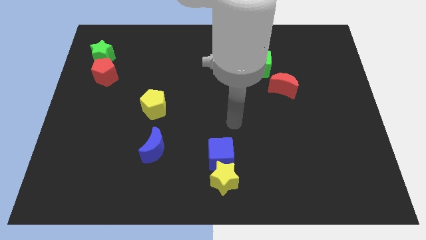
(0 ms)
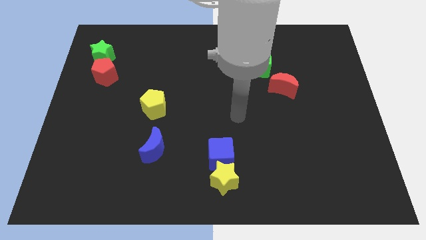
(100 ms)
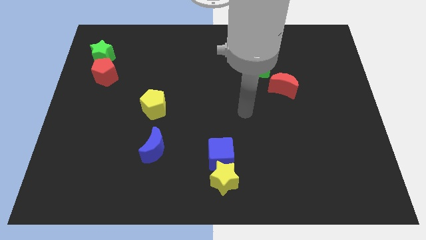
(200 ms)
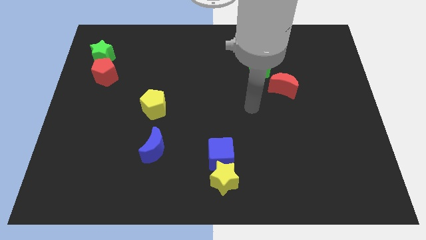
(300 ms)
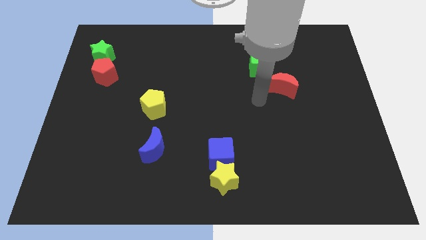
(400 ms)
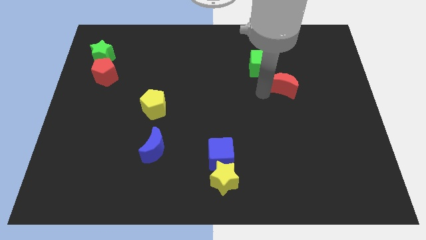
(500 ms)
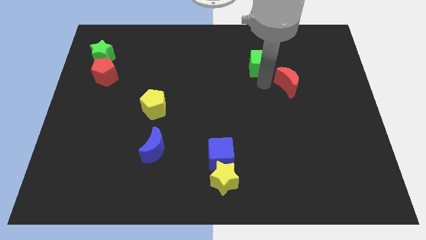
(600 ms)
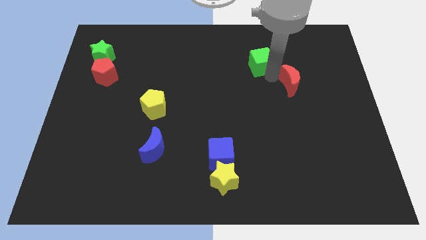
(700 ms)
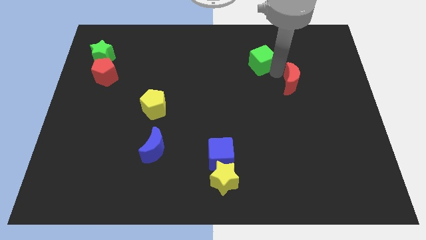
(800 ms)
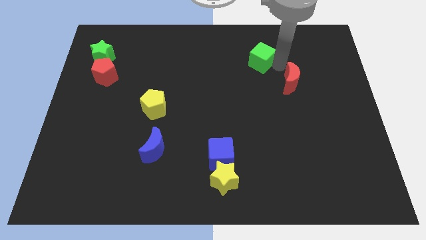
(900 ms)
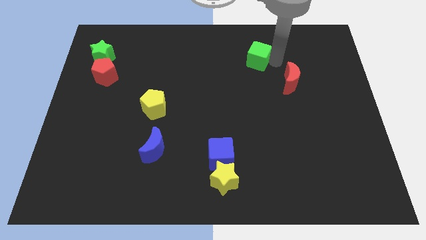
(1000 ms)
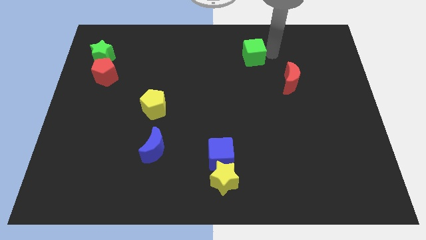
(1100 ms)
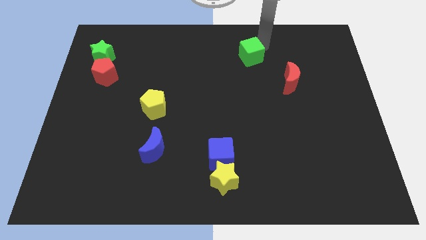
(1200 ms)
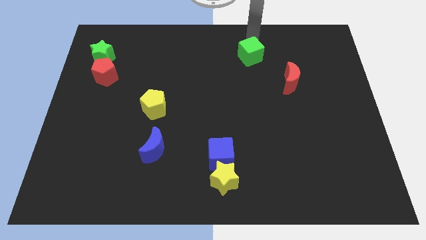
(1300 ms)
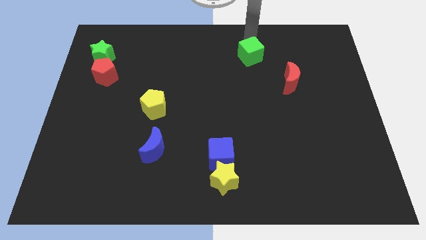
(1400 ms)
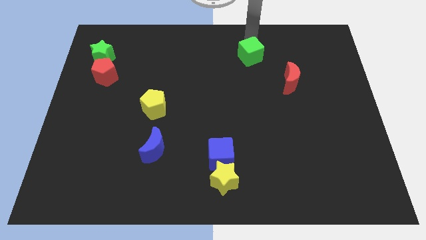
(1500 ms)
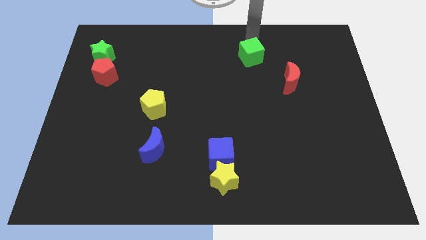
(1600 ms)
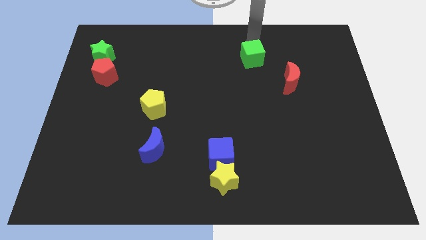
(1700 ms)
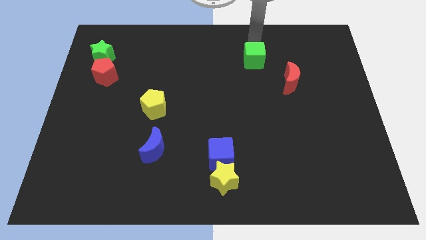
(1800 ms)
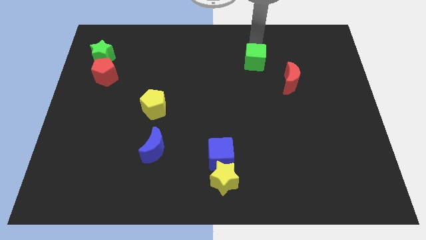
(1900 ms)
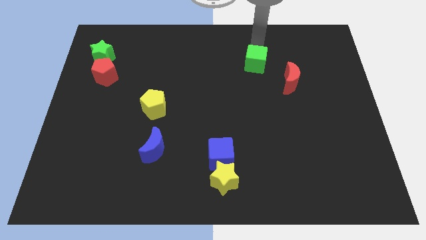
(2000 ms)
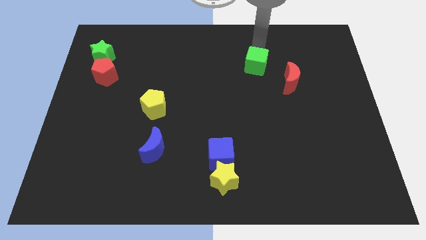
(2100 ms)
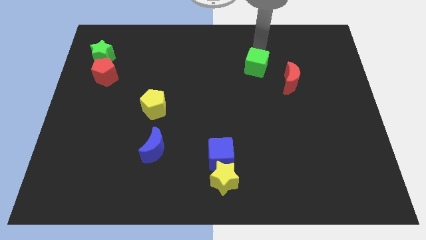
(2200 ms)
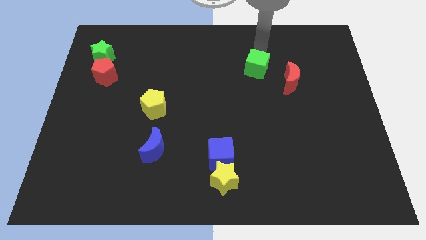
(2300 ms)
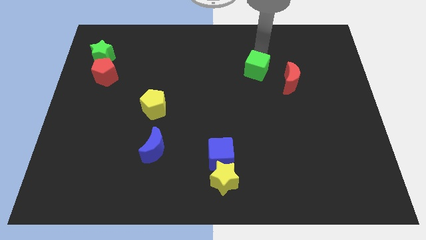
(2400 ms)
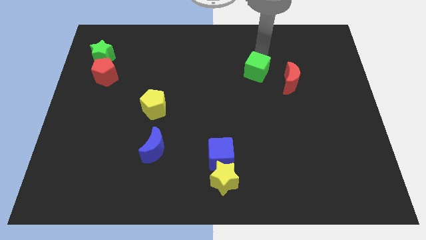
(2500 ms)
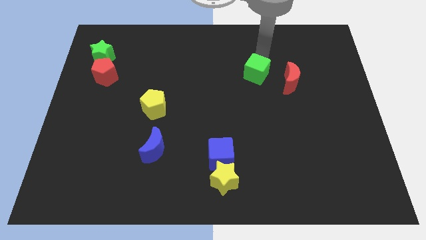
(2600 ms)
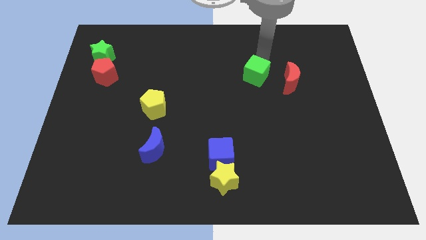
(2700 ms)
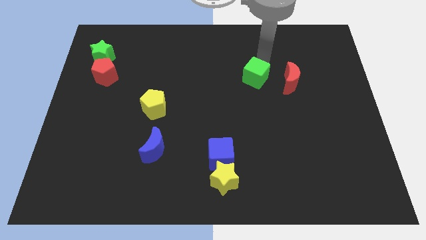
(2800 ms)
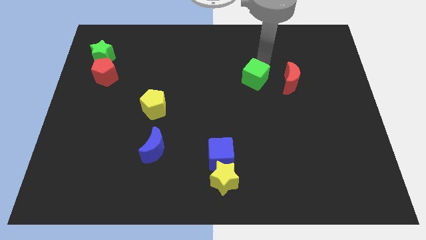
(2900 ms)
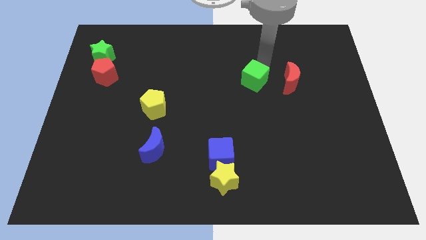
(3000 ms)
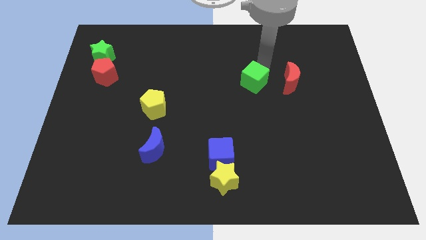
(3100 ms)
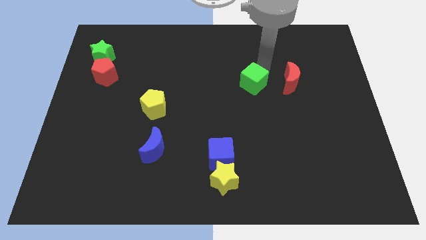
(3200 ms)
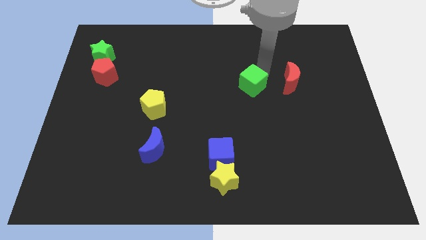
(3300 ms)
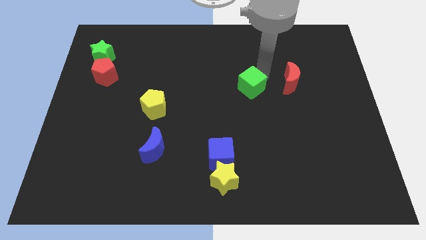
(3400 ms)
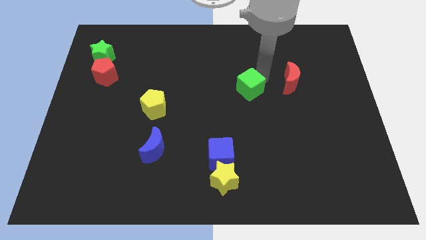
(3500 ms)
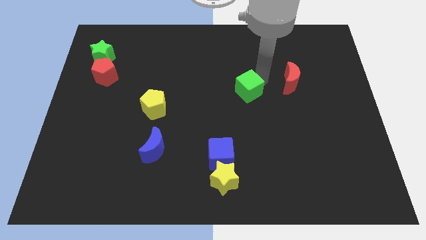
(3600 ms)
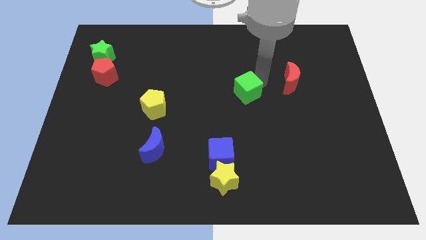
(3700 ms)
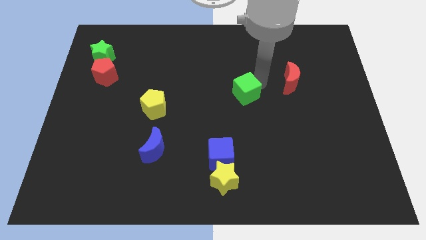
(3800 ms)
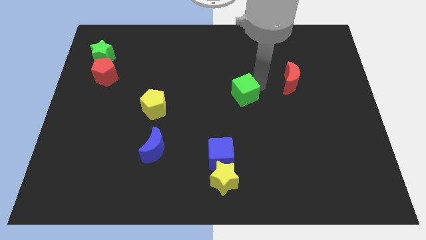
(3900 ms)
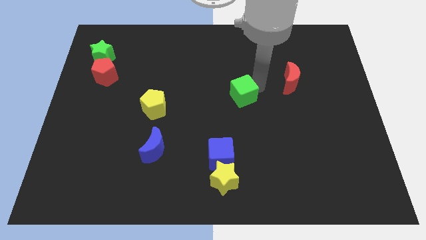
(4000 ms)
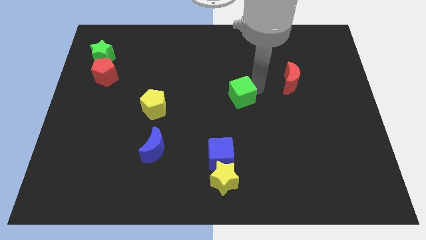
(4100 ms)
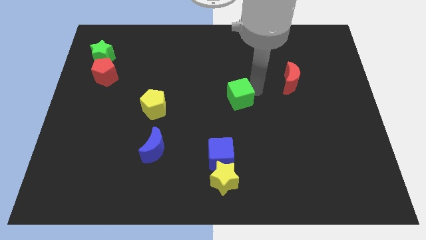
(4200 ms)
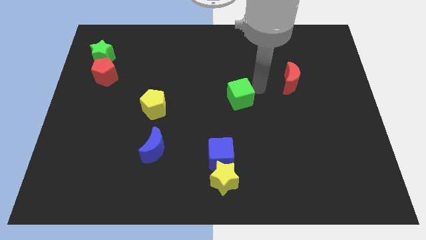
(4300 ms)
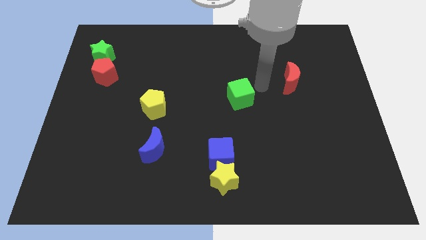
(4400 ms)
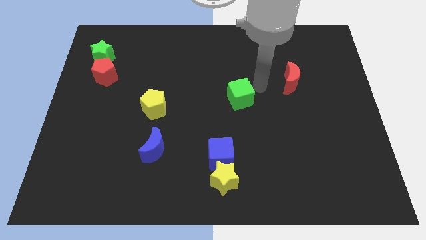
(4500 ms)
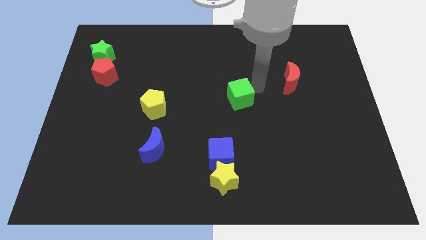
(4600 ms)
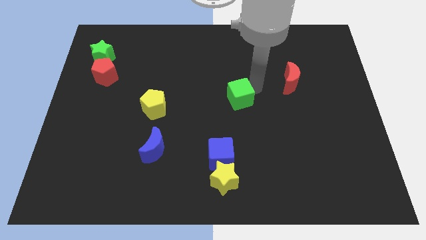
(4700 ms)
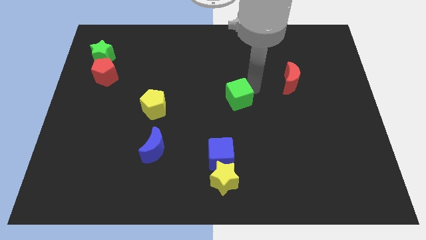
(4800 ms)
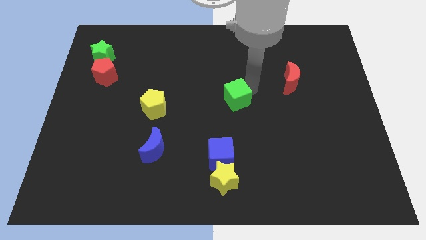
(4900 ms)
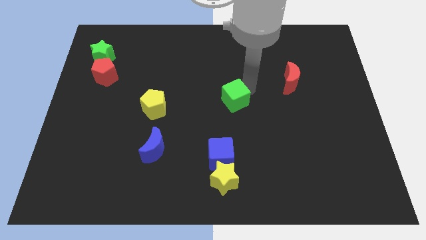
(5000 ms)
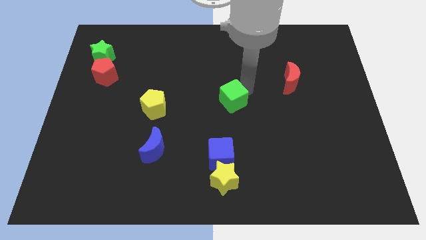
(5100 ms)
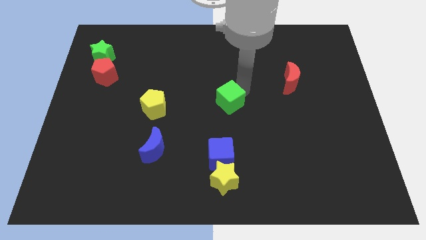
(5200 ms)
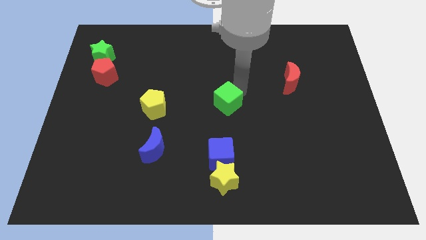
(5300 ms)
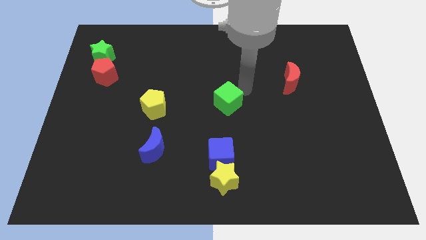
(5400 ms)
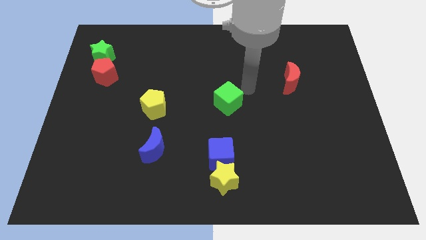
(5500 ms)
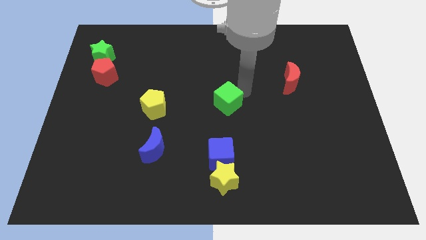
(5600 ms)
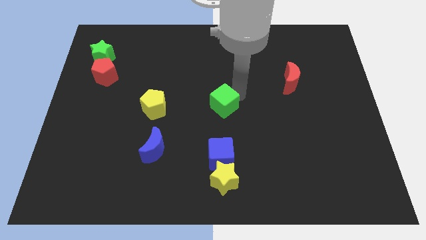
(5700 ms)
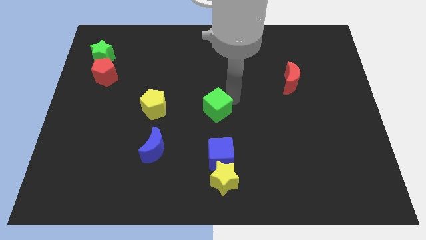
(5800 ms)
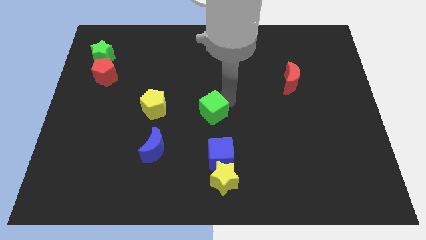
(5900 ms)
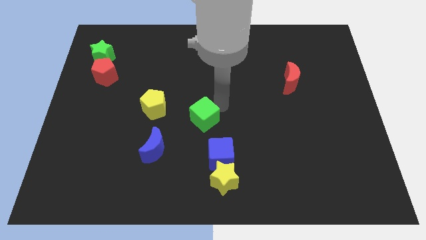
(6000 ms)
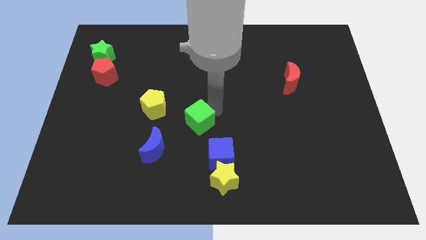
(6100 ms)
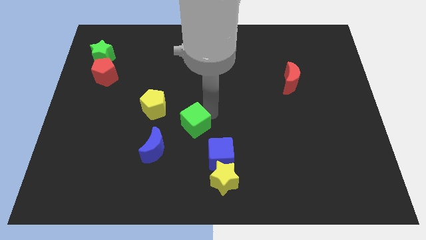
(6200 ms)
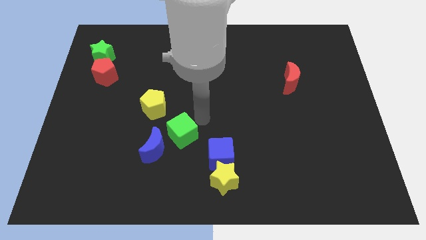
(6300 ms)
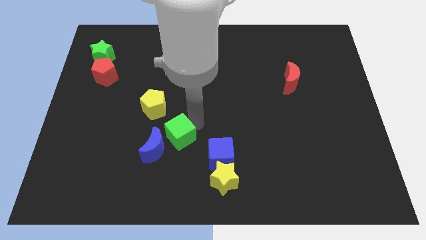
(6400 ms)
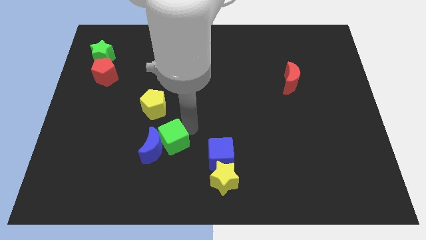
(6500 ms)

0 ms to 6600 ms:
push the green cube next to the blue moon

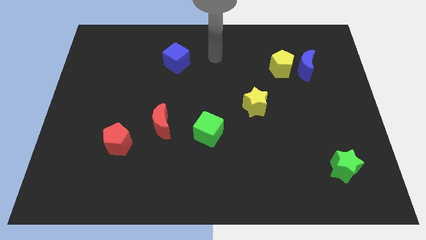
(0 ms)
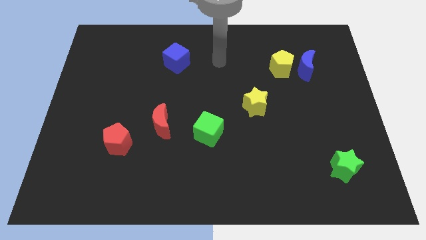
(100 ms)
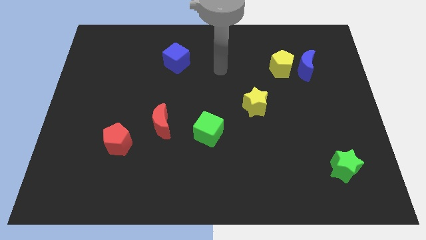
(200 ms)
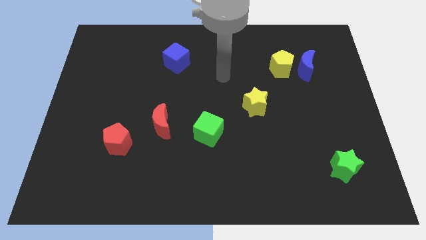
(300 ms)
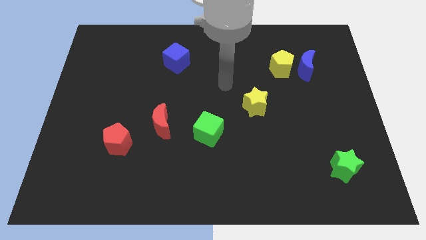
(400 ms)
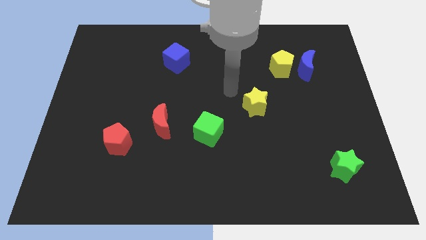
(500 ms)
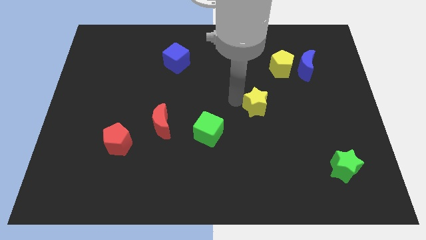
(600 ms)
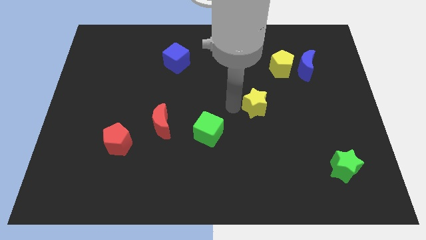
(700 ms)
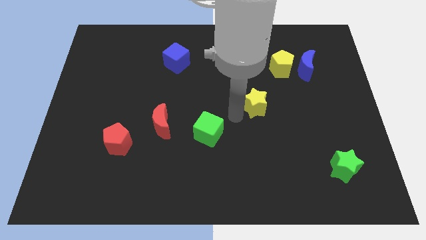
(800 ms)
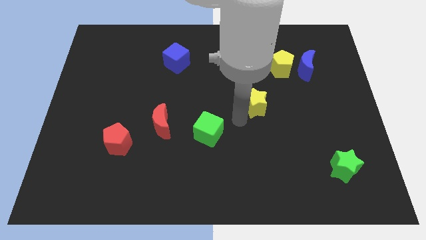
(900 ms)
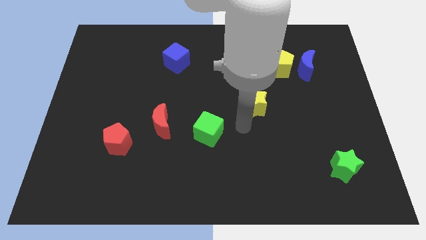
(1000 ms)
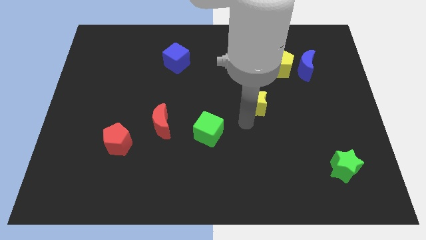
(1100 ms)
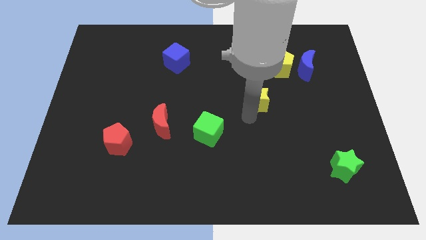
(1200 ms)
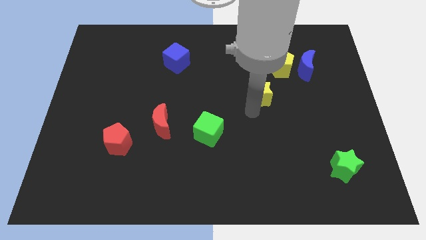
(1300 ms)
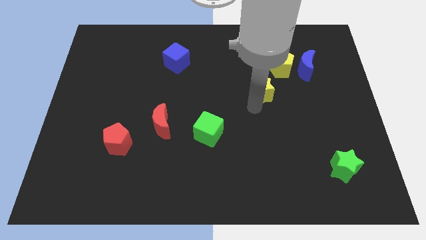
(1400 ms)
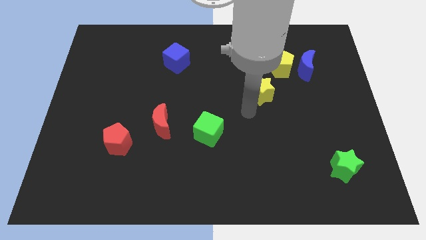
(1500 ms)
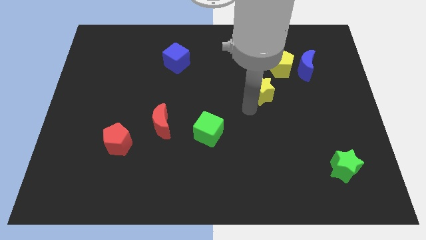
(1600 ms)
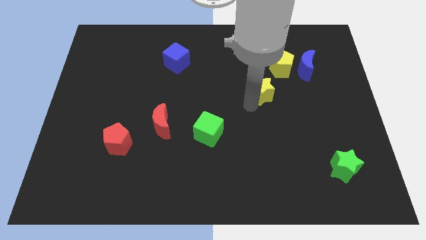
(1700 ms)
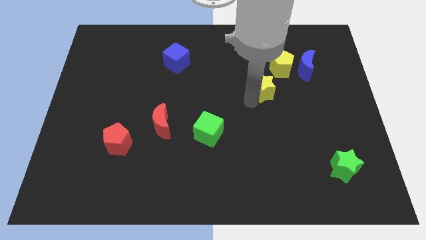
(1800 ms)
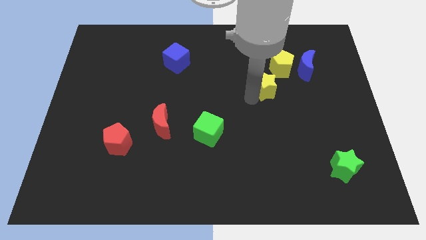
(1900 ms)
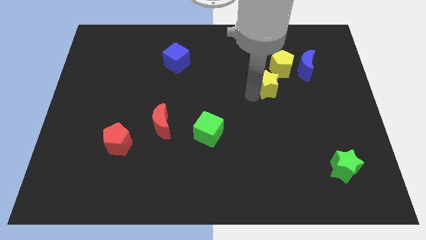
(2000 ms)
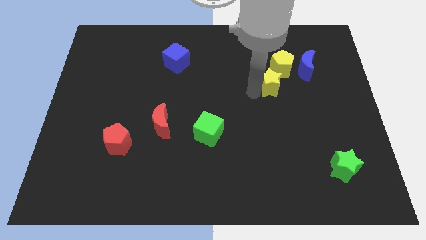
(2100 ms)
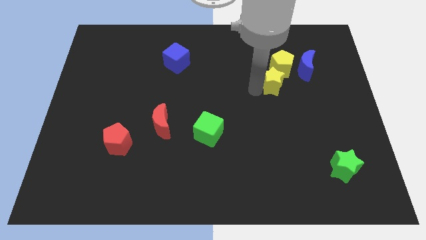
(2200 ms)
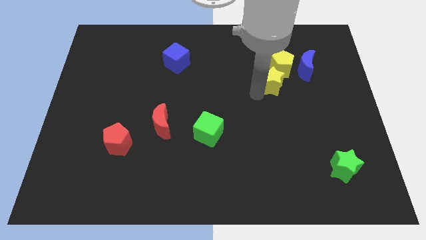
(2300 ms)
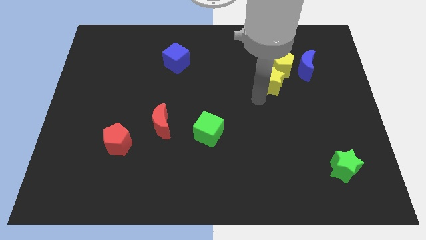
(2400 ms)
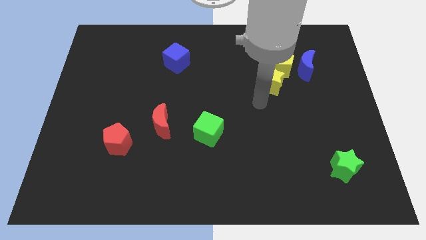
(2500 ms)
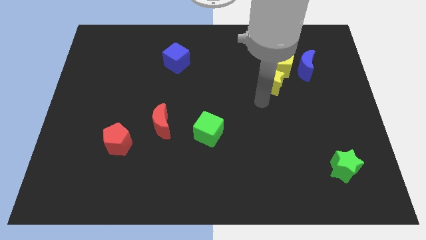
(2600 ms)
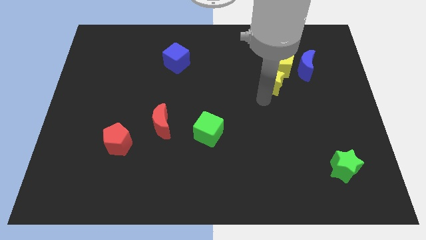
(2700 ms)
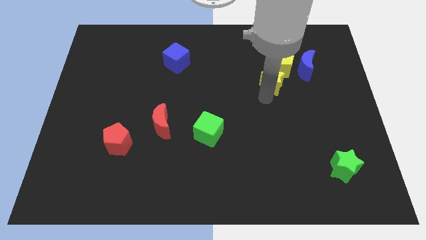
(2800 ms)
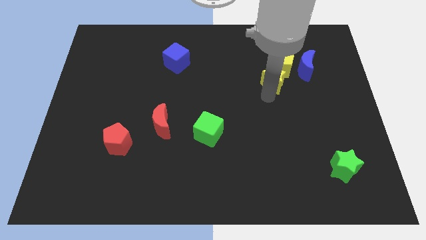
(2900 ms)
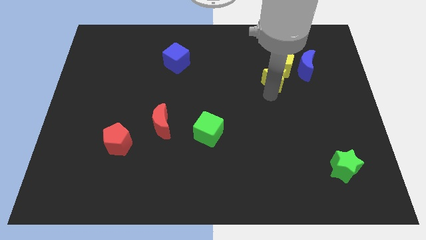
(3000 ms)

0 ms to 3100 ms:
slide the yellow star close to the yellow pentagon
